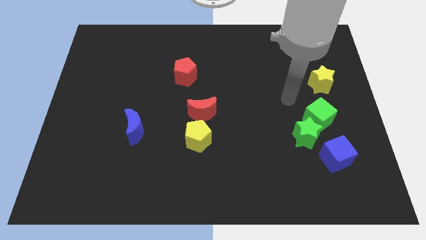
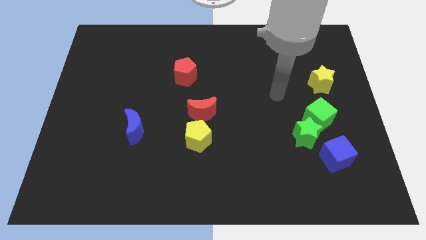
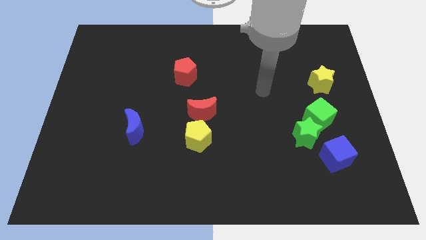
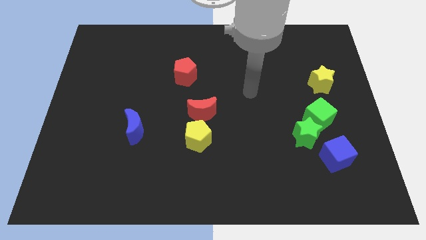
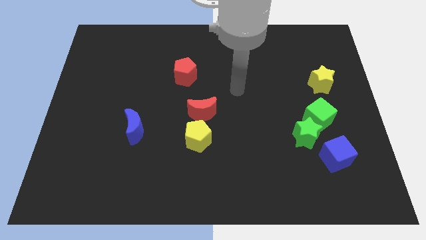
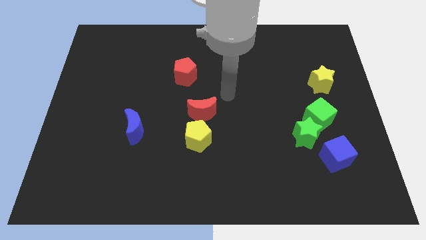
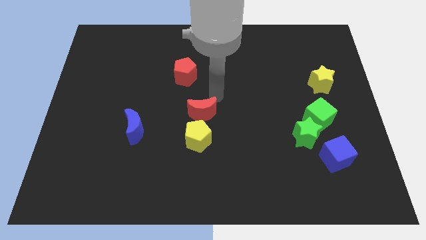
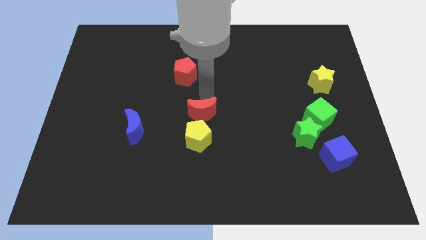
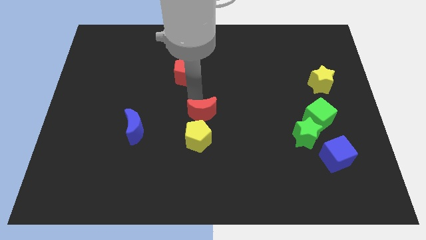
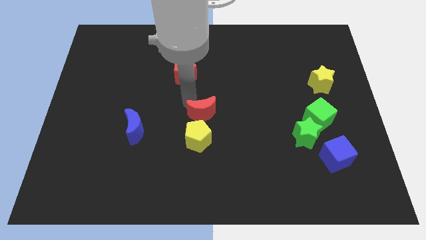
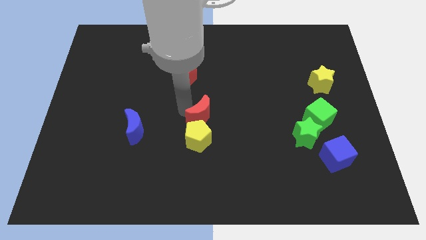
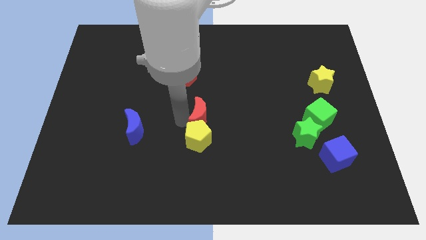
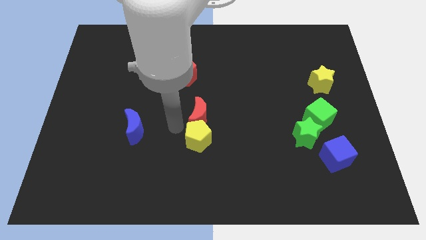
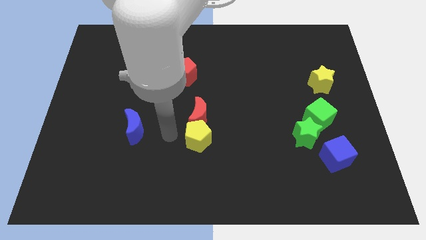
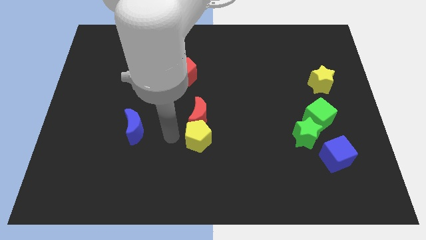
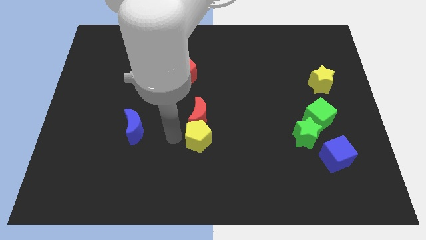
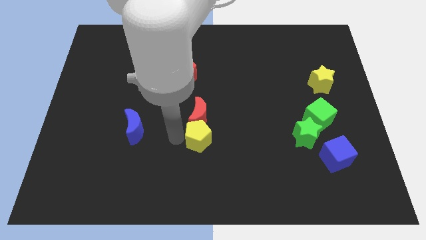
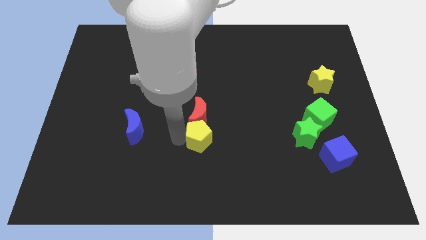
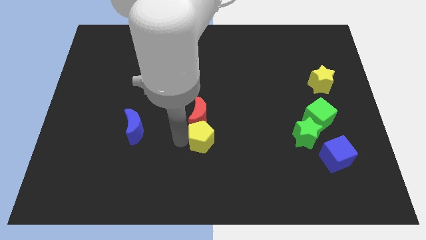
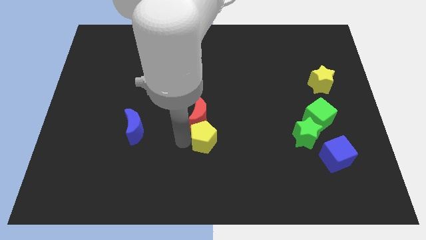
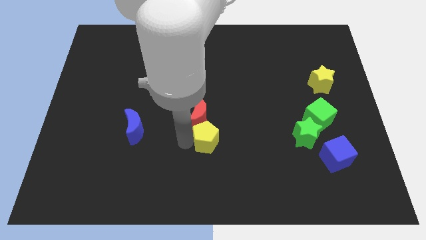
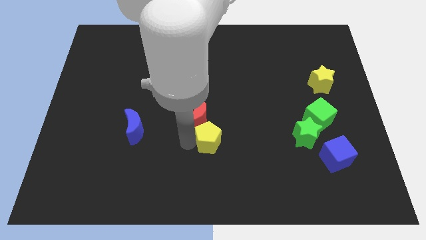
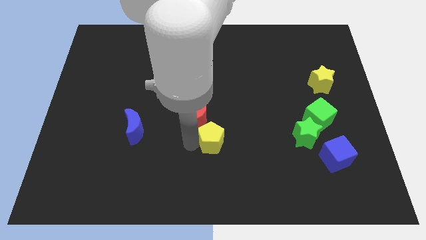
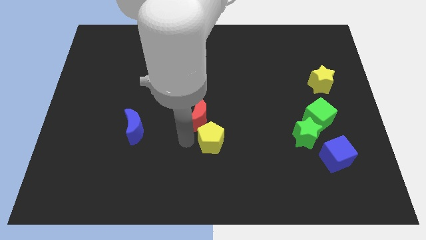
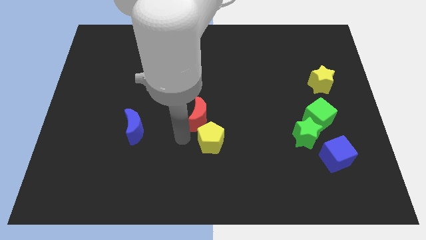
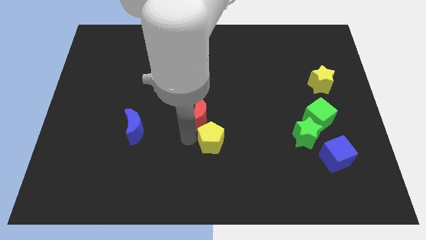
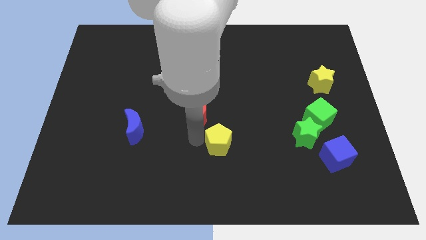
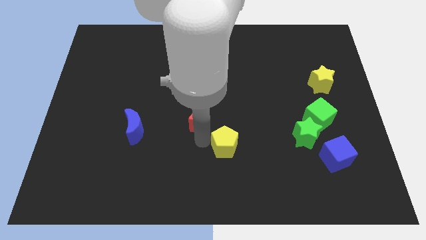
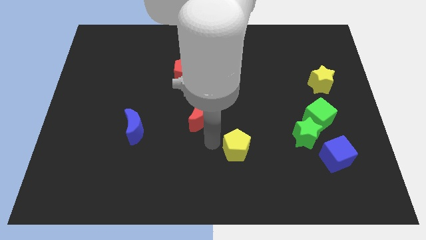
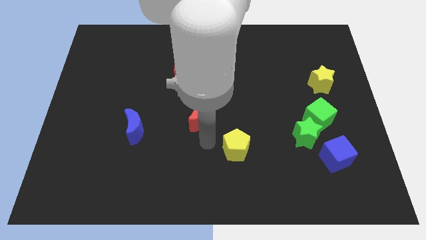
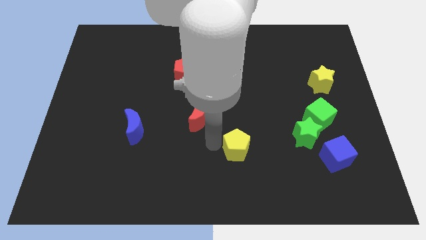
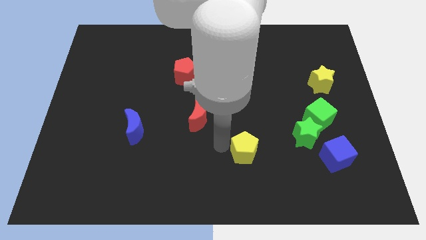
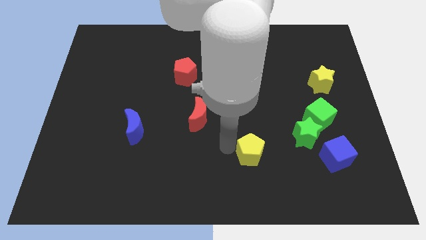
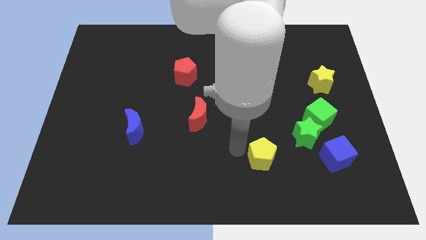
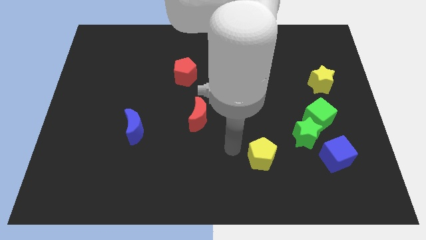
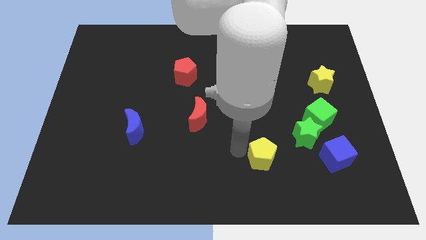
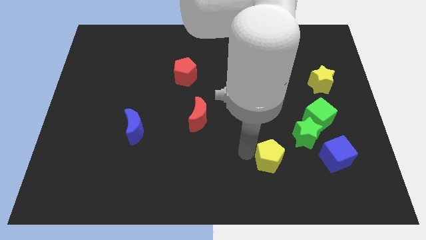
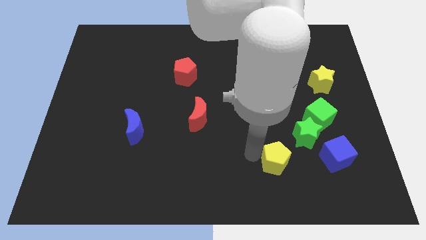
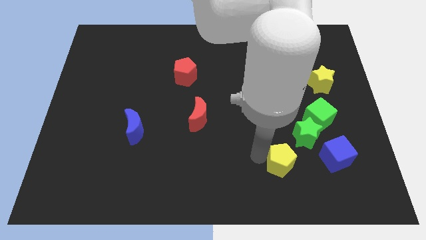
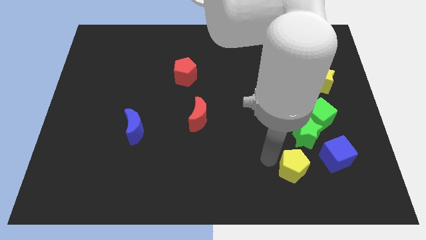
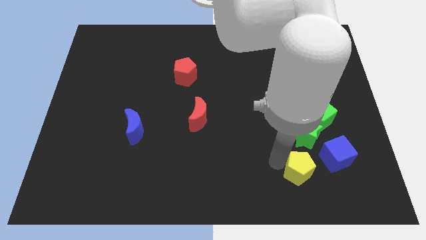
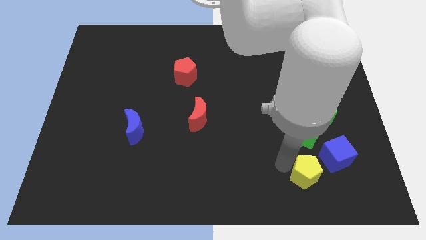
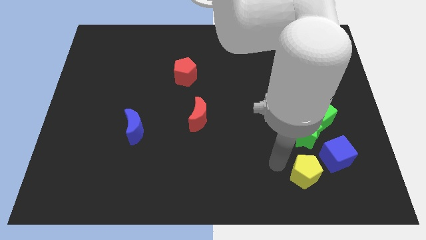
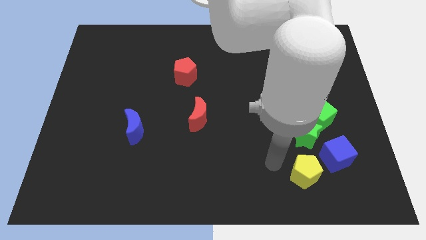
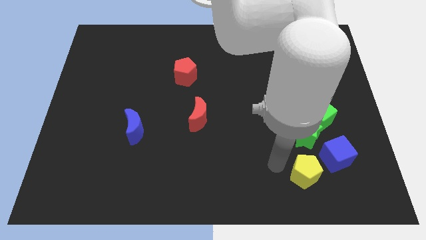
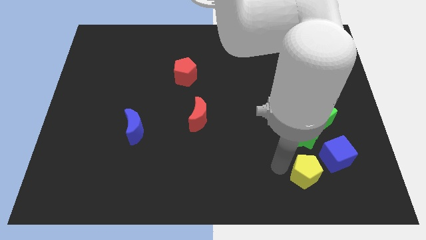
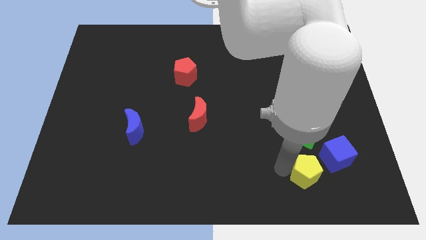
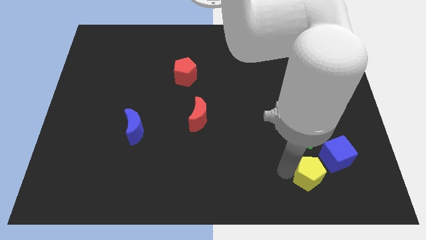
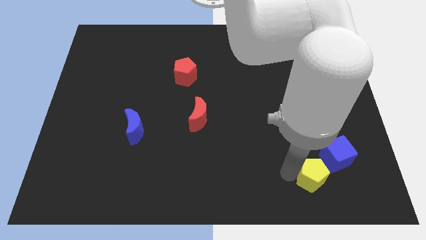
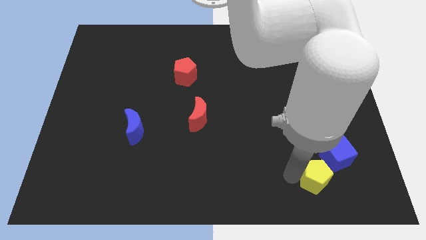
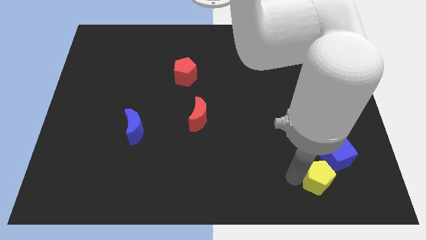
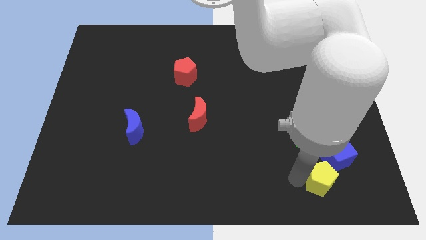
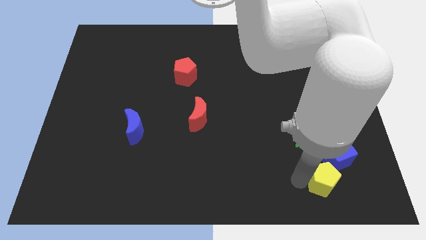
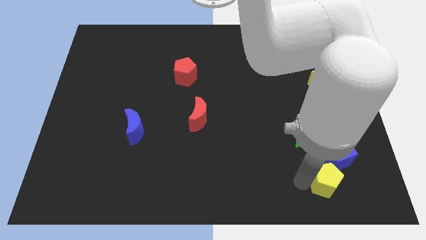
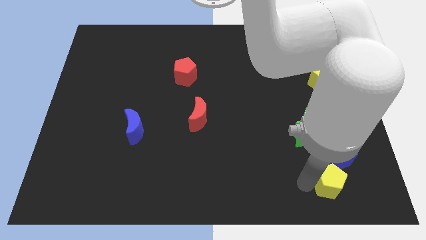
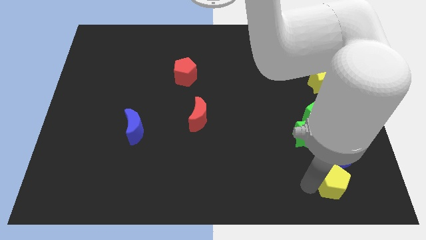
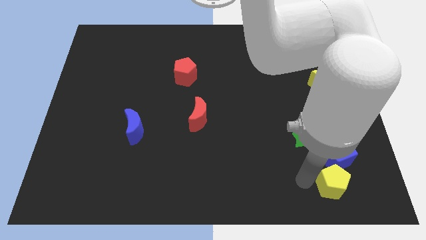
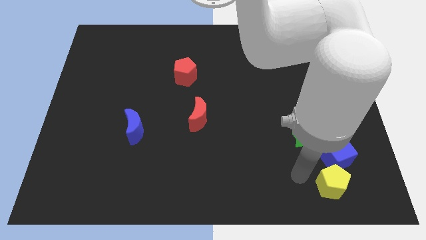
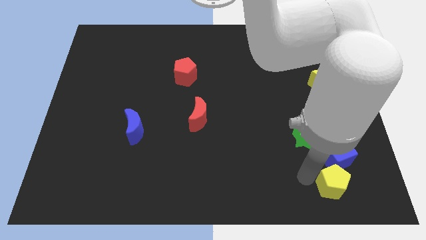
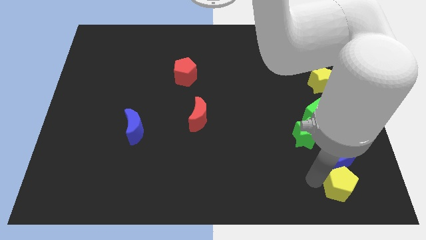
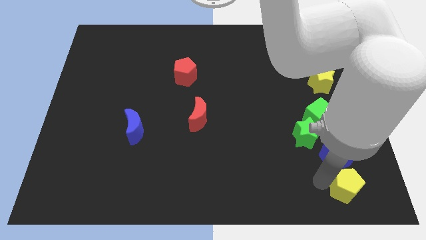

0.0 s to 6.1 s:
put the yellow pentagon to the bottom right of the board

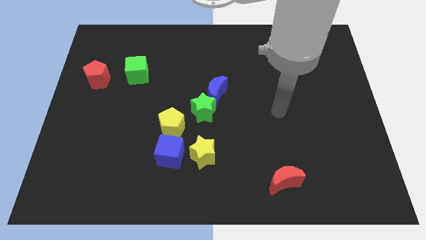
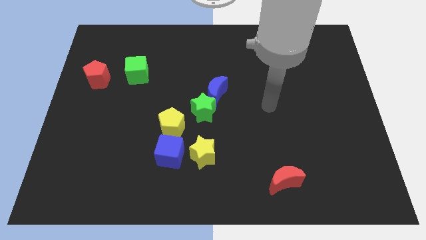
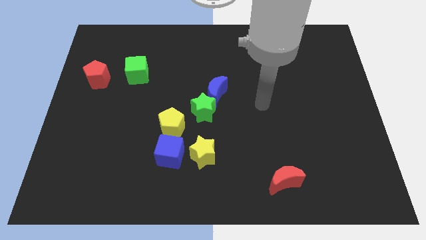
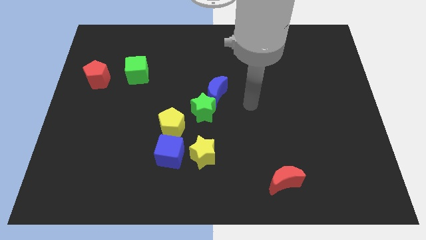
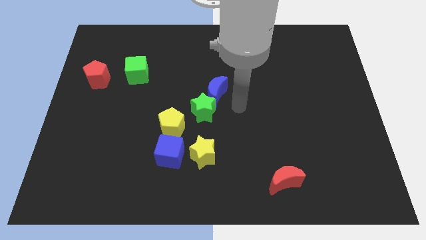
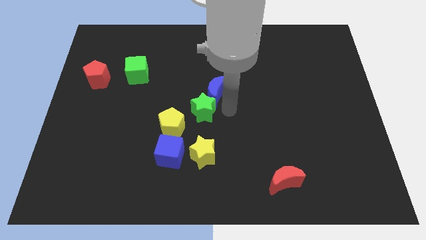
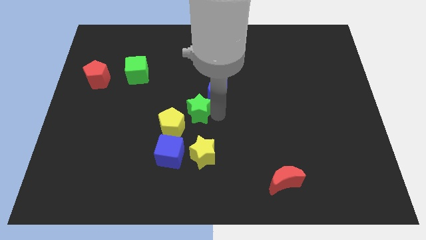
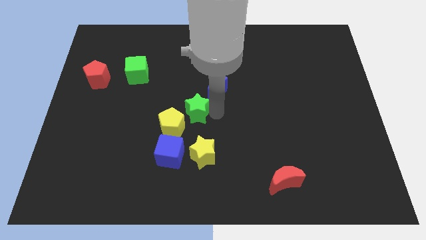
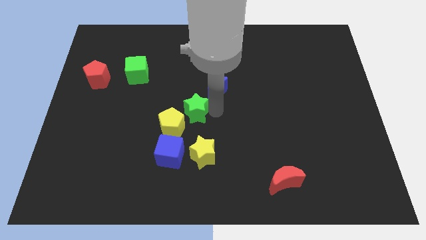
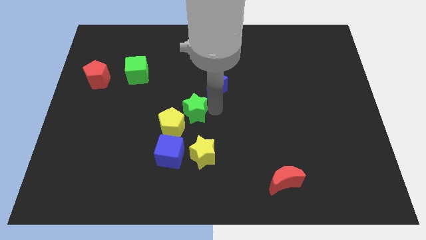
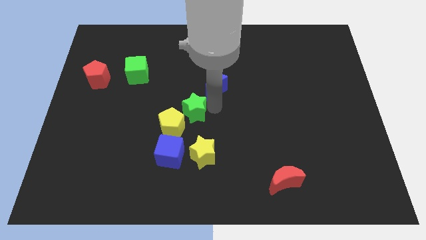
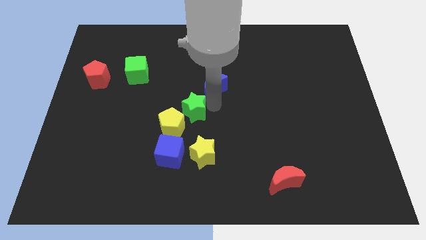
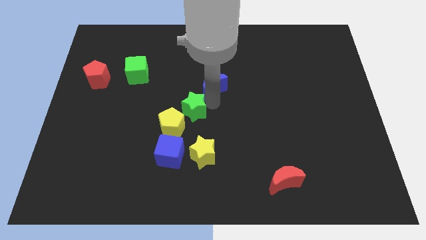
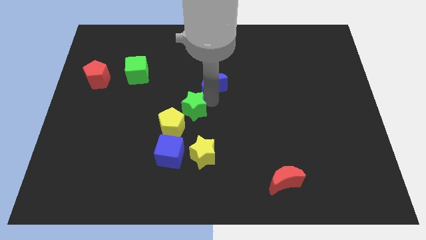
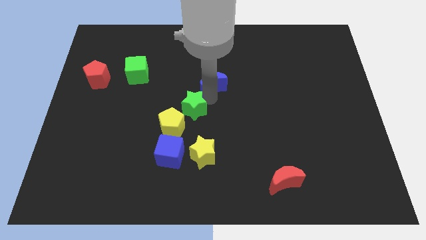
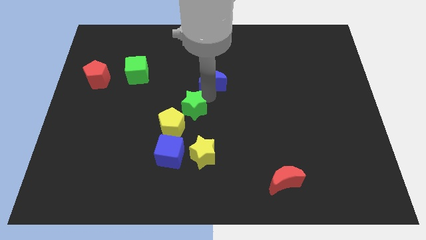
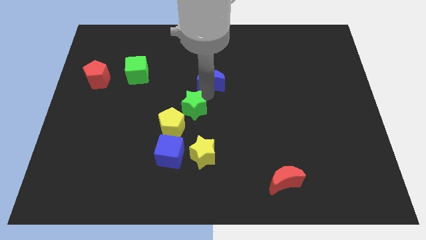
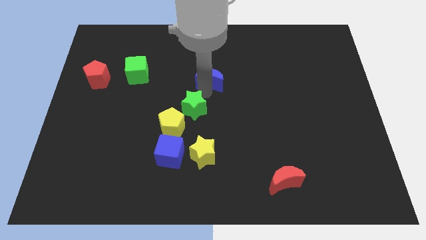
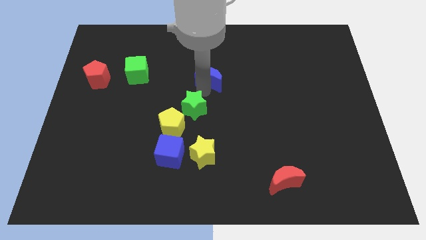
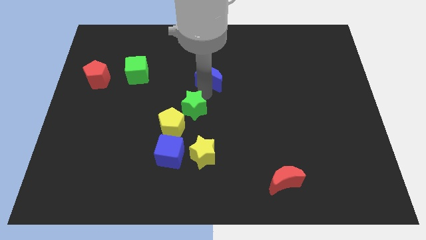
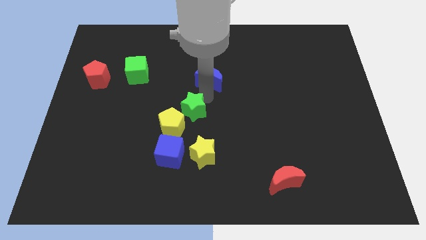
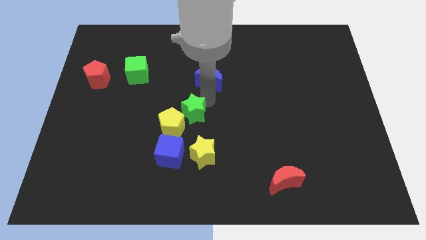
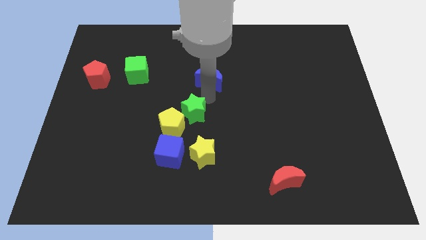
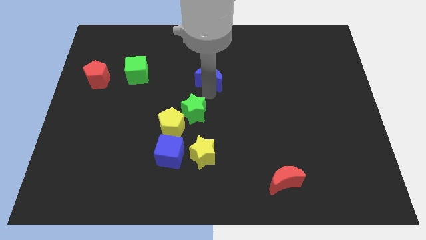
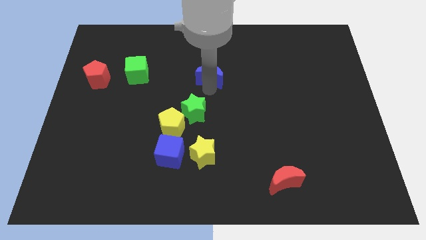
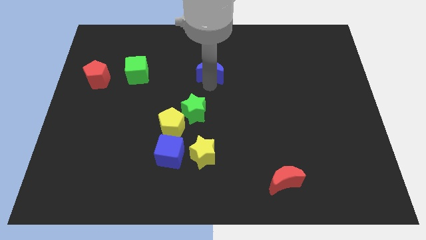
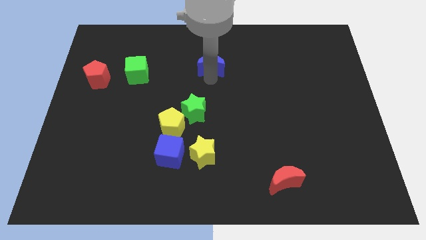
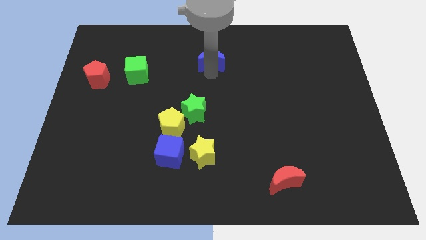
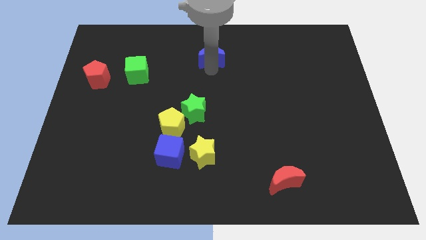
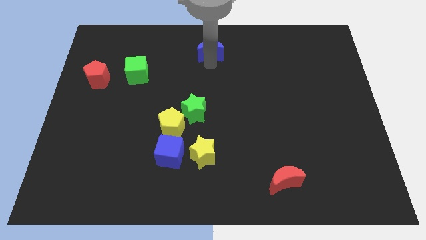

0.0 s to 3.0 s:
push the blue moon to the towards your base
